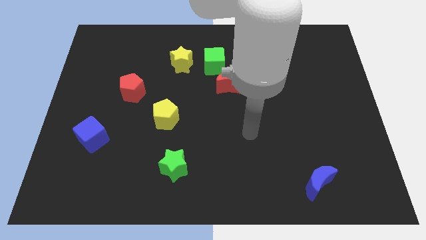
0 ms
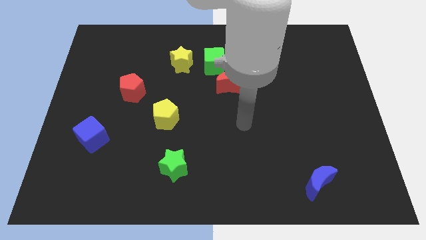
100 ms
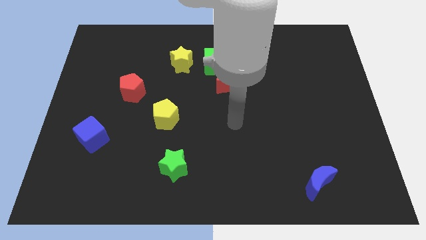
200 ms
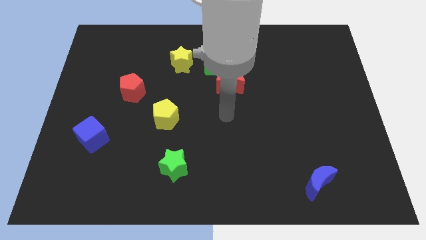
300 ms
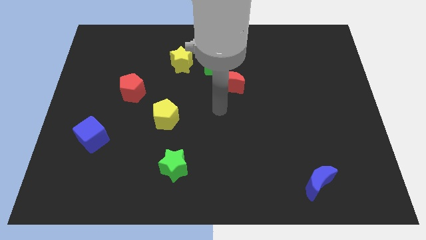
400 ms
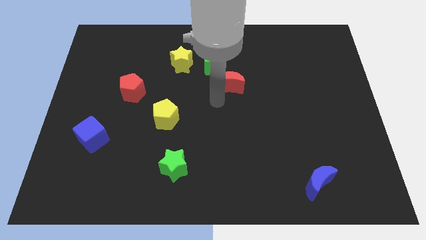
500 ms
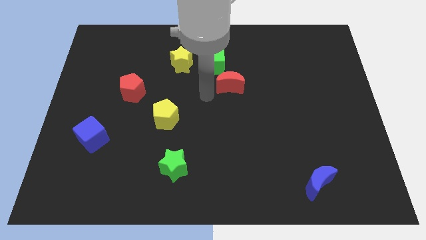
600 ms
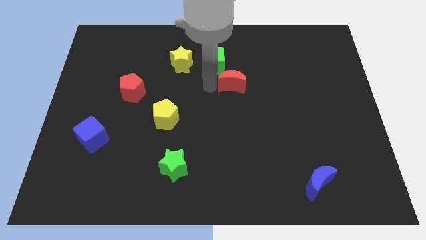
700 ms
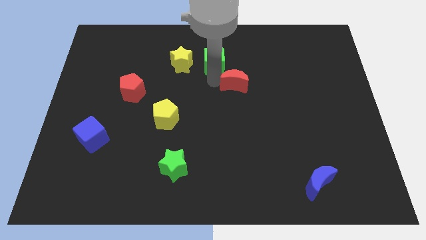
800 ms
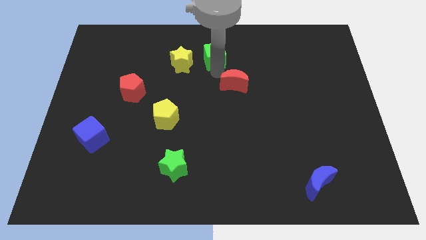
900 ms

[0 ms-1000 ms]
pull the red moon apart from the green cube

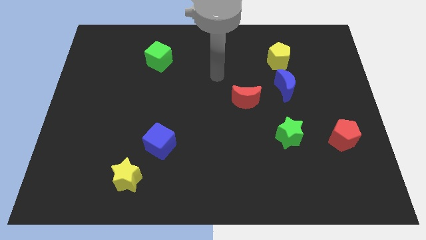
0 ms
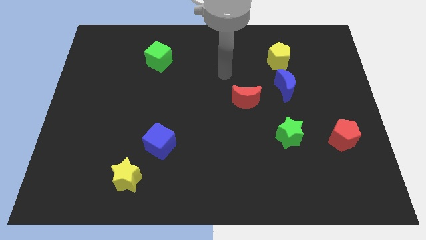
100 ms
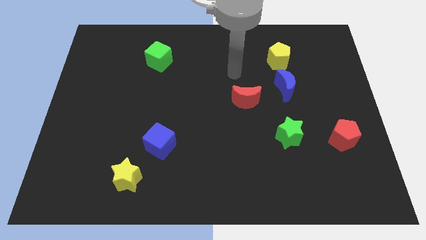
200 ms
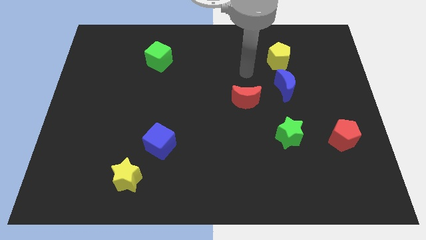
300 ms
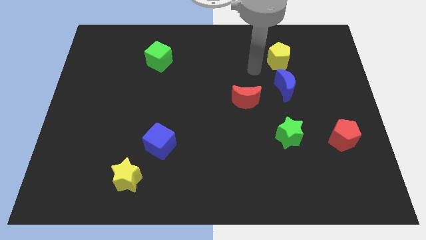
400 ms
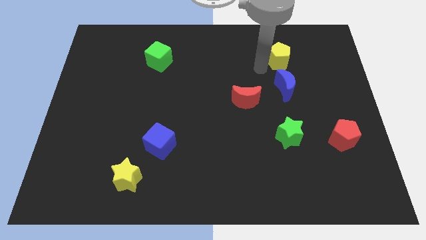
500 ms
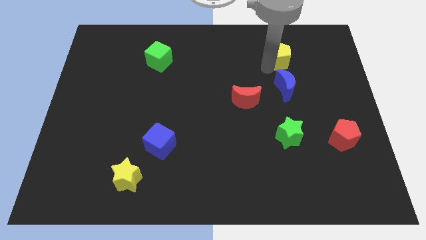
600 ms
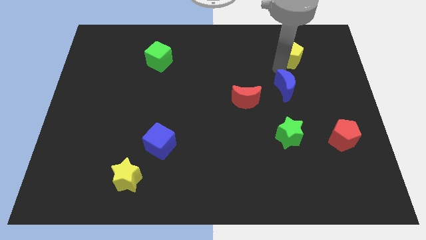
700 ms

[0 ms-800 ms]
separate the blue moon from the yellow pentagon

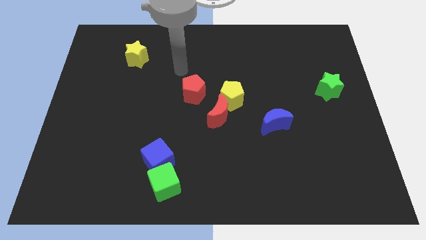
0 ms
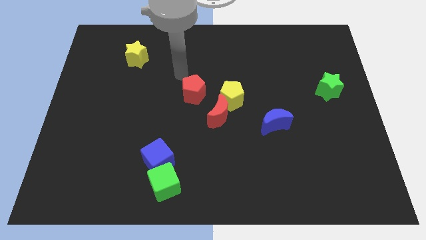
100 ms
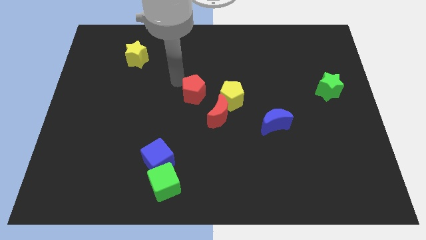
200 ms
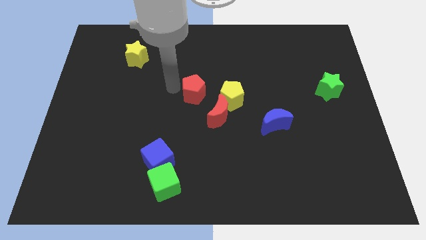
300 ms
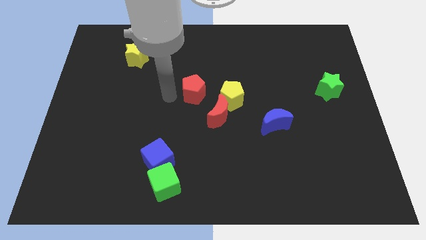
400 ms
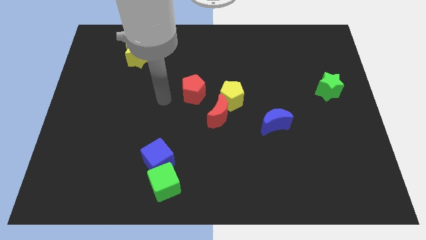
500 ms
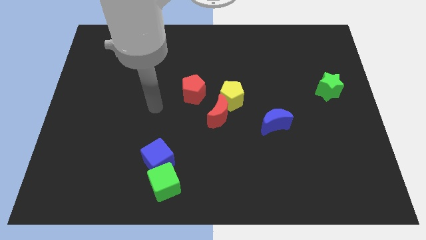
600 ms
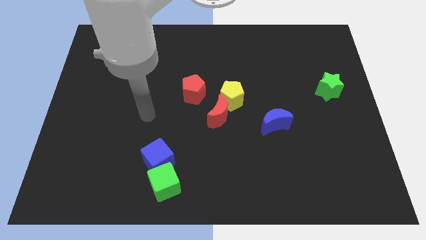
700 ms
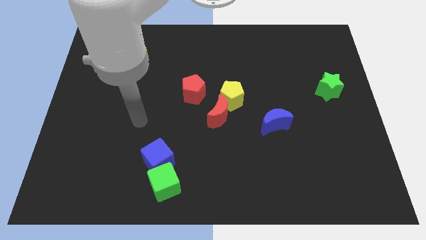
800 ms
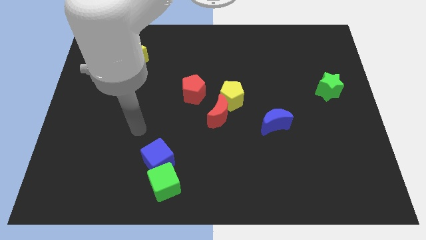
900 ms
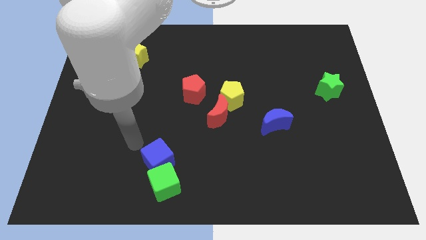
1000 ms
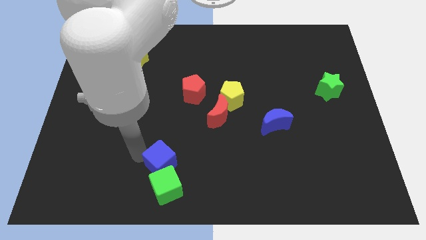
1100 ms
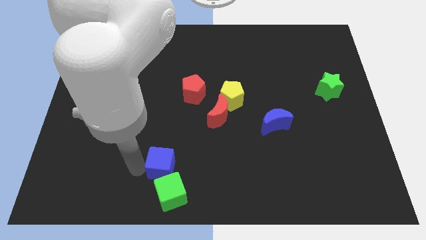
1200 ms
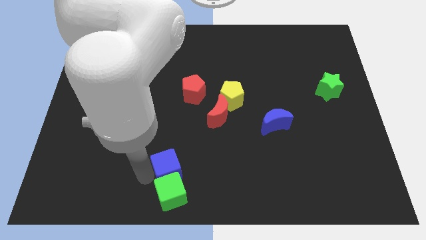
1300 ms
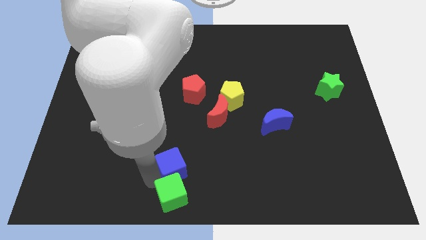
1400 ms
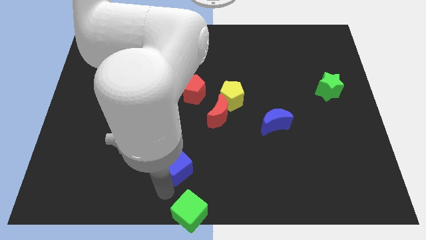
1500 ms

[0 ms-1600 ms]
separate the blue cube from the green cube

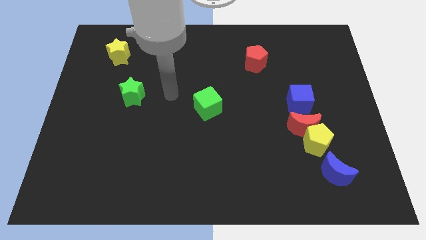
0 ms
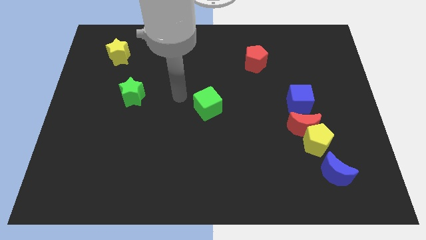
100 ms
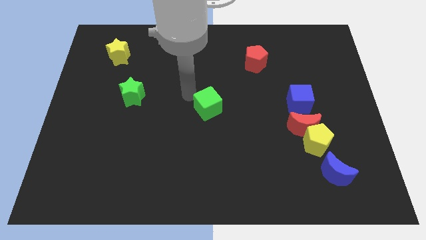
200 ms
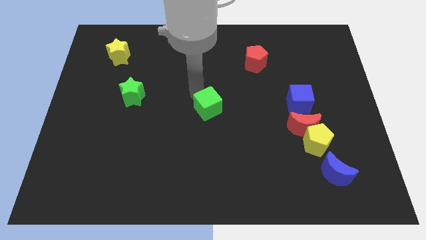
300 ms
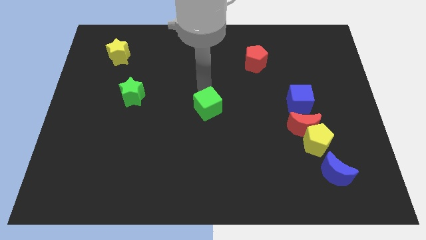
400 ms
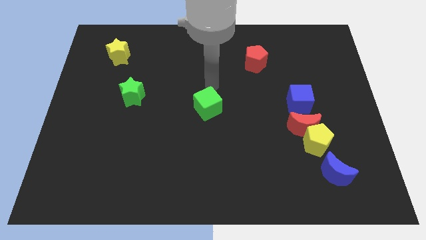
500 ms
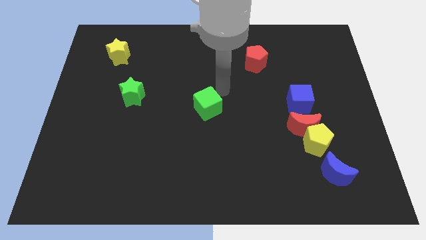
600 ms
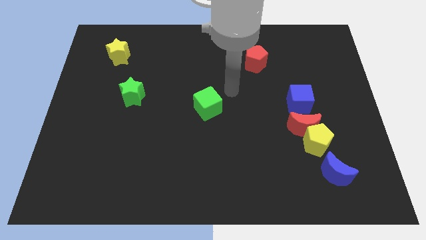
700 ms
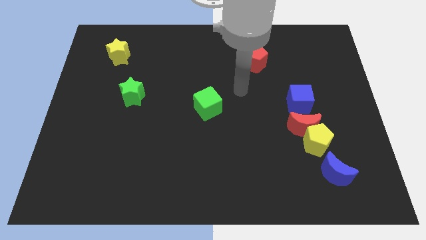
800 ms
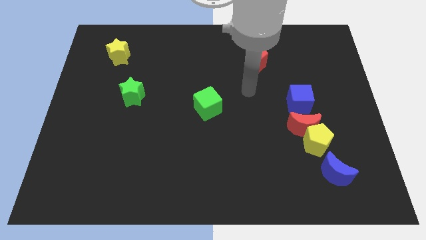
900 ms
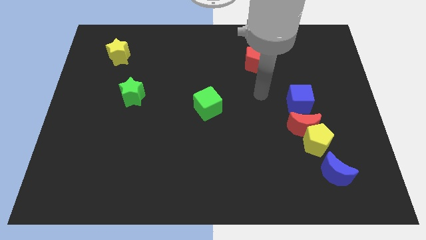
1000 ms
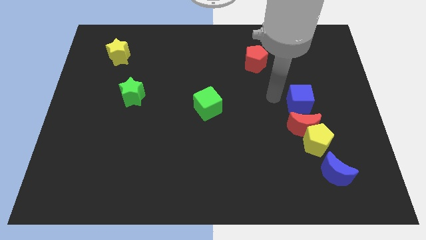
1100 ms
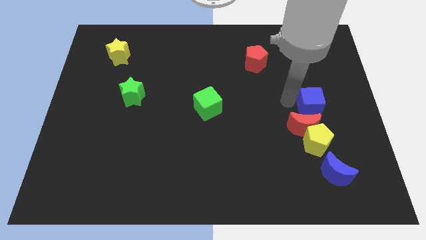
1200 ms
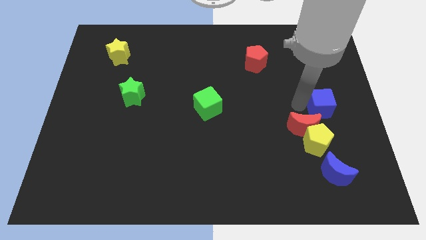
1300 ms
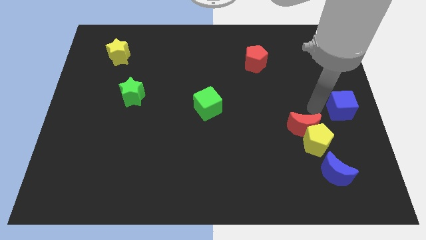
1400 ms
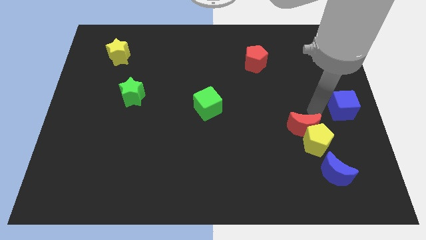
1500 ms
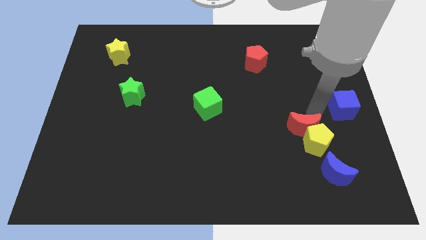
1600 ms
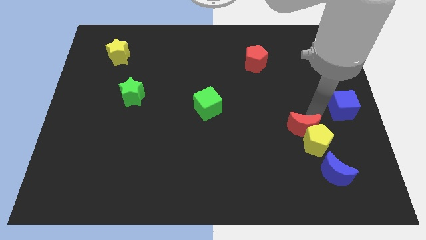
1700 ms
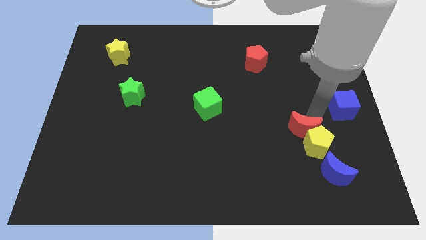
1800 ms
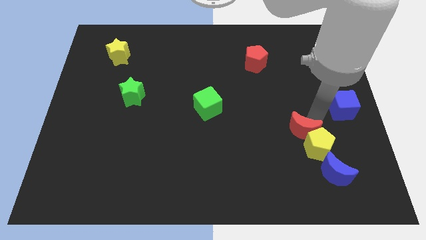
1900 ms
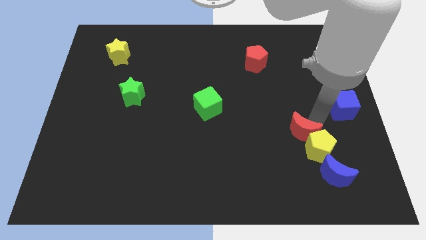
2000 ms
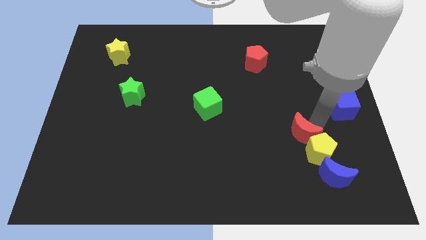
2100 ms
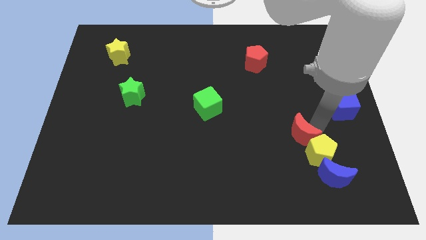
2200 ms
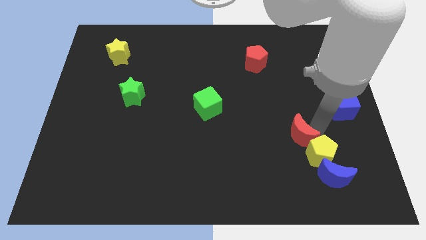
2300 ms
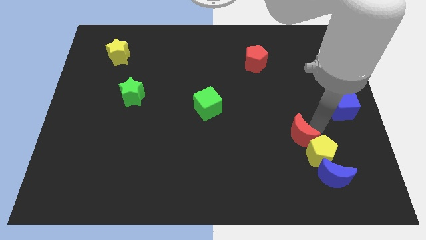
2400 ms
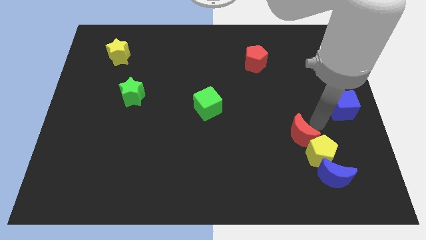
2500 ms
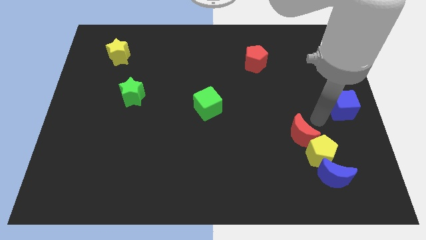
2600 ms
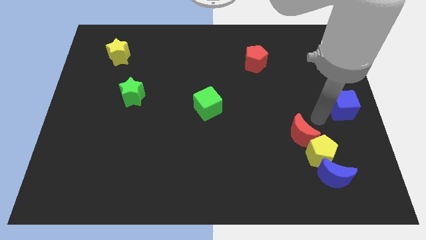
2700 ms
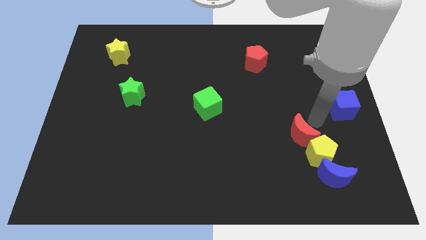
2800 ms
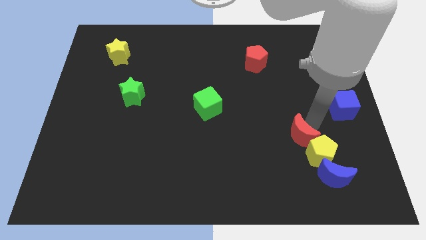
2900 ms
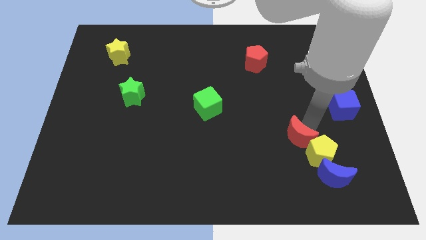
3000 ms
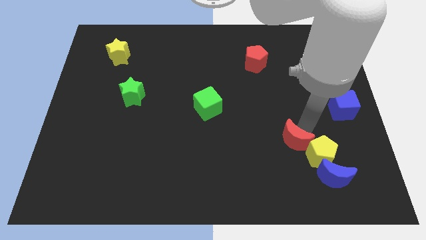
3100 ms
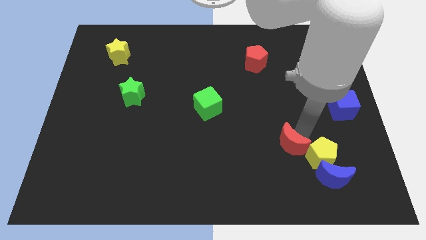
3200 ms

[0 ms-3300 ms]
separate the red moon from the yellow pentagon and blue cube

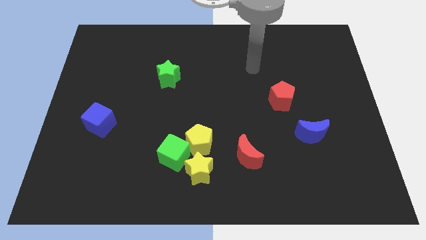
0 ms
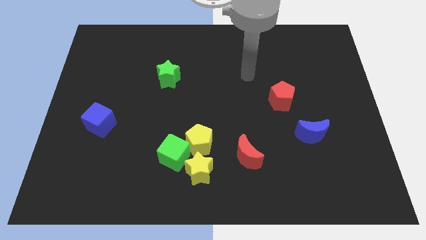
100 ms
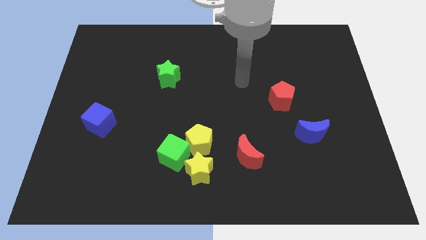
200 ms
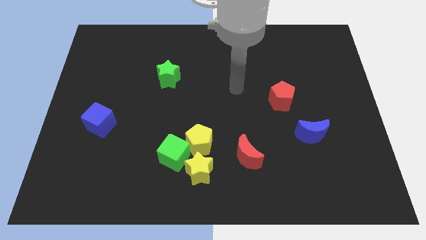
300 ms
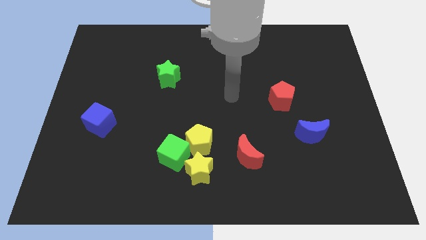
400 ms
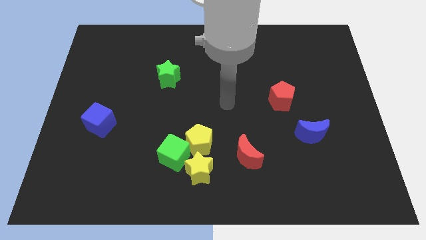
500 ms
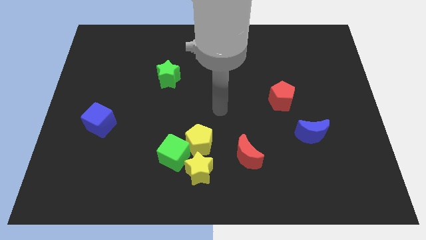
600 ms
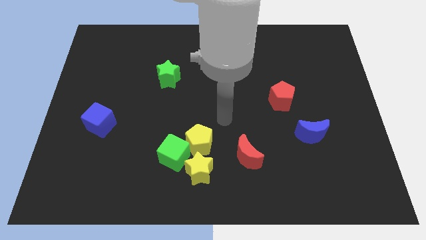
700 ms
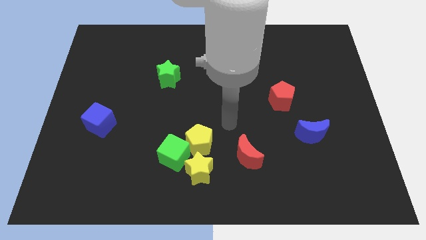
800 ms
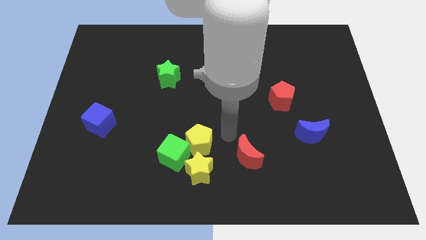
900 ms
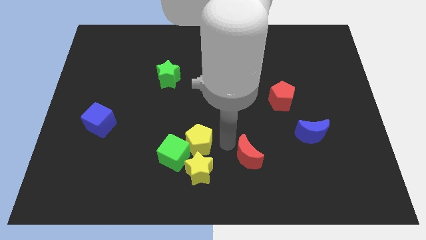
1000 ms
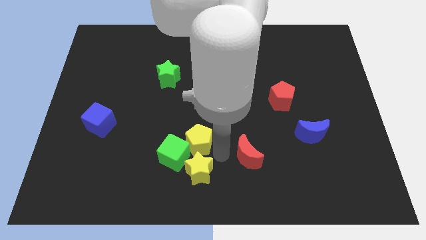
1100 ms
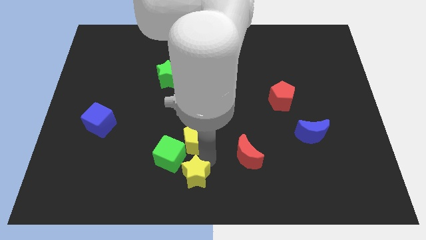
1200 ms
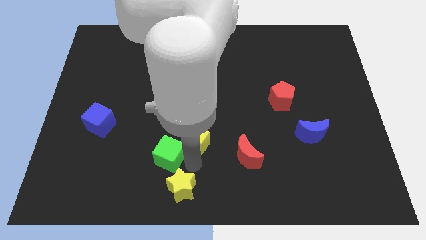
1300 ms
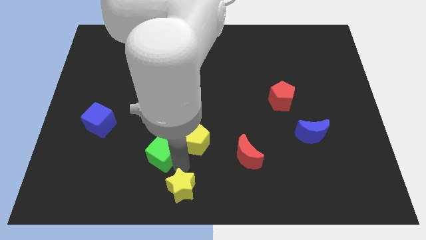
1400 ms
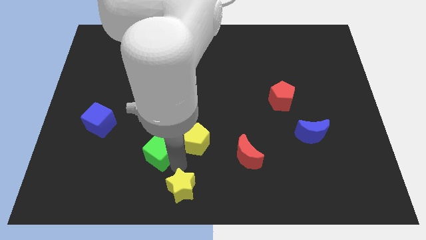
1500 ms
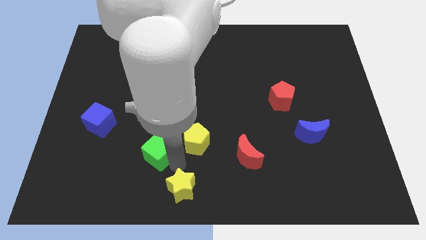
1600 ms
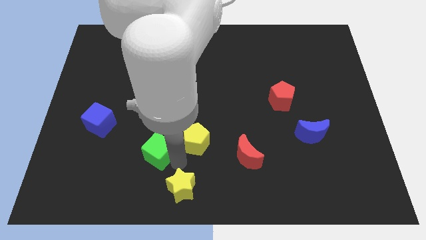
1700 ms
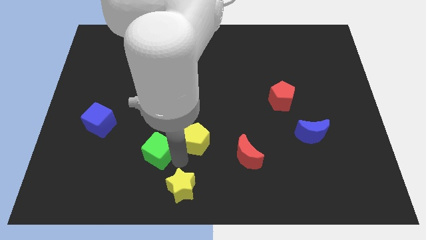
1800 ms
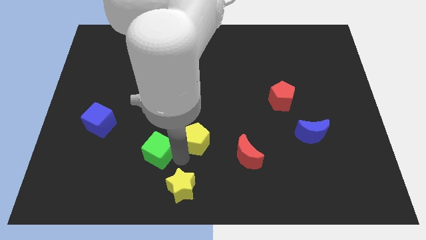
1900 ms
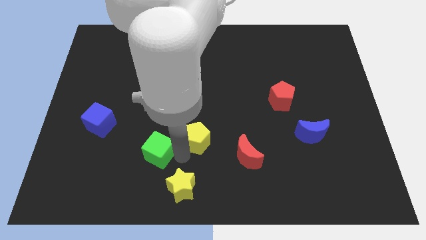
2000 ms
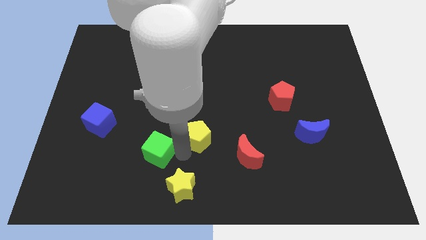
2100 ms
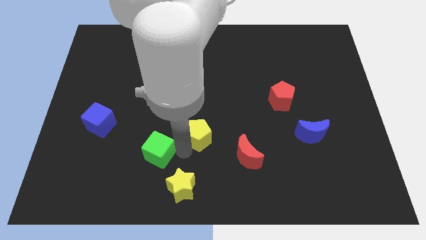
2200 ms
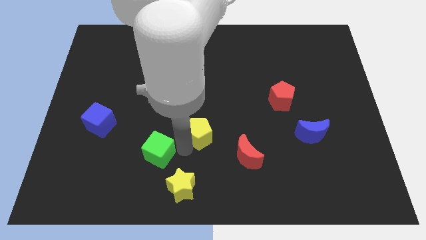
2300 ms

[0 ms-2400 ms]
separate the yellow pentagon from the green cube and yellow star

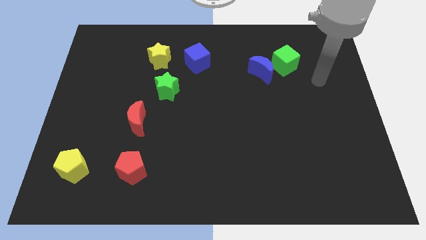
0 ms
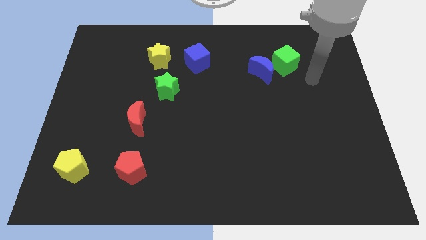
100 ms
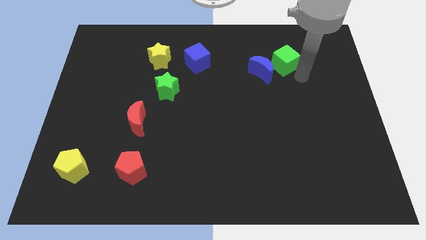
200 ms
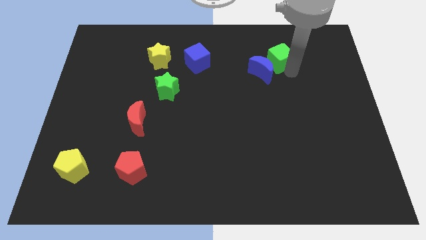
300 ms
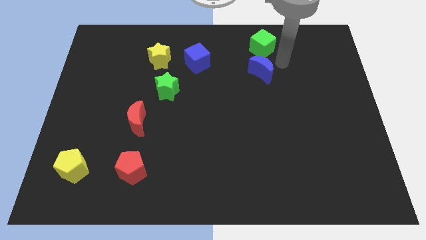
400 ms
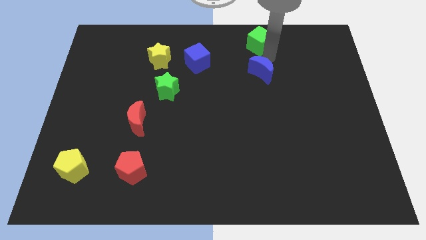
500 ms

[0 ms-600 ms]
pull the blue moon apart from the green cube
